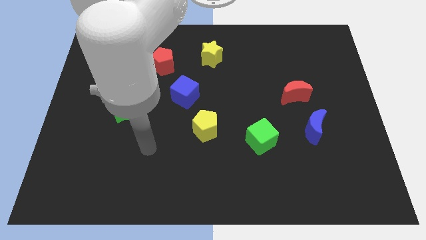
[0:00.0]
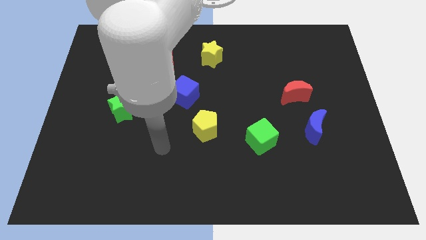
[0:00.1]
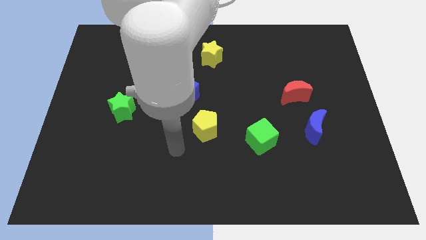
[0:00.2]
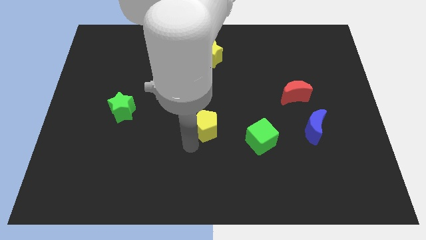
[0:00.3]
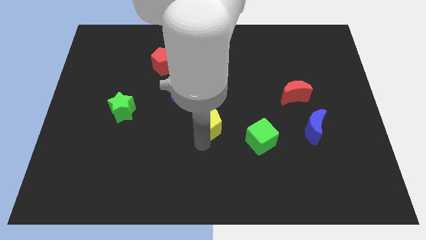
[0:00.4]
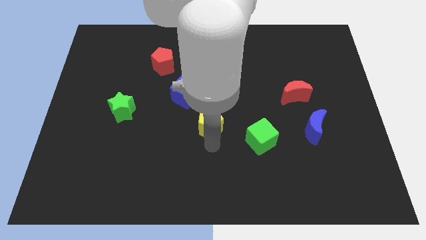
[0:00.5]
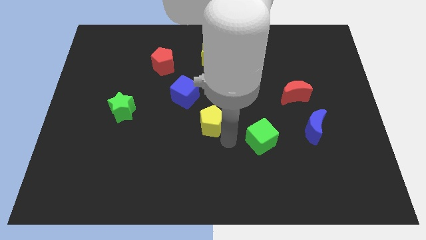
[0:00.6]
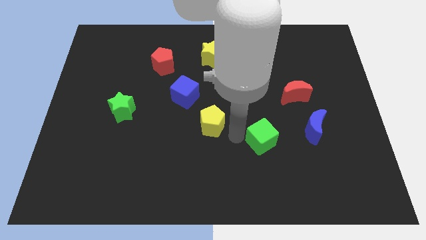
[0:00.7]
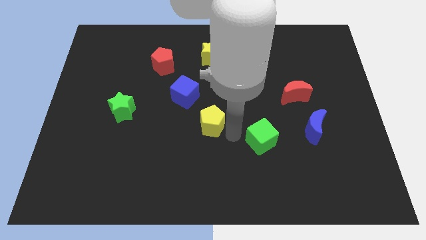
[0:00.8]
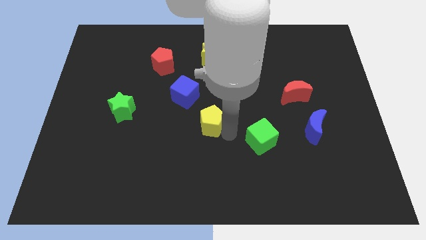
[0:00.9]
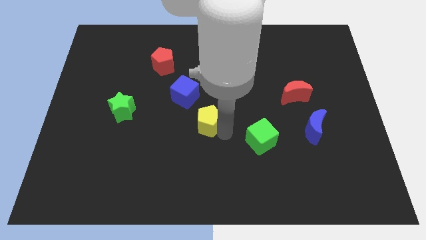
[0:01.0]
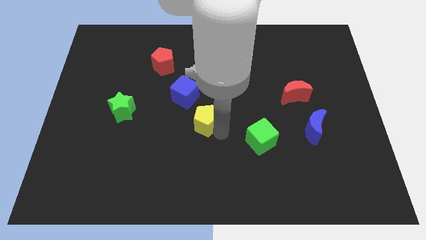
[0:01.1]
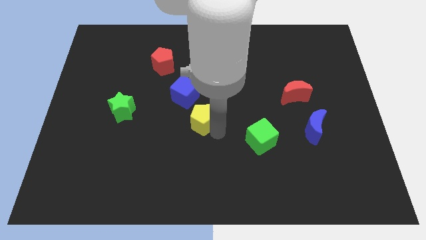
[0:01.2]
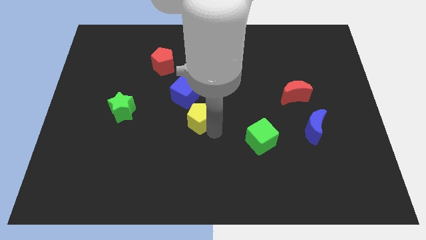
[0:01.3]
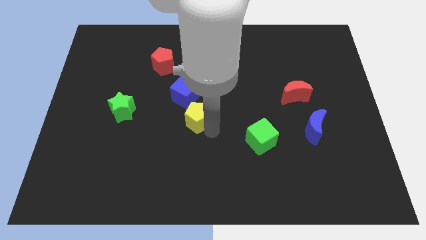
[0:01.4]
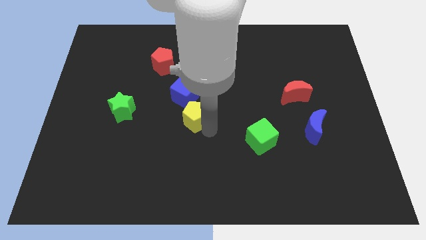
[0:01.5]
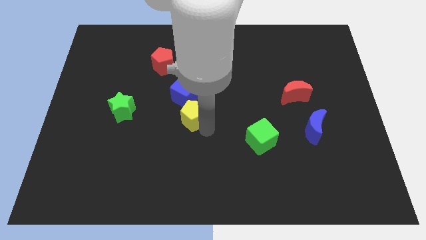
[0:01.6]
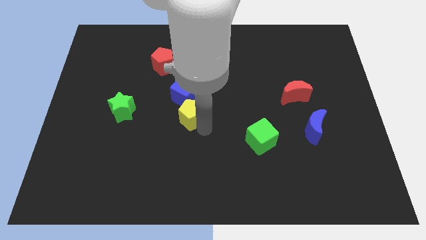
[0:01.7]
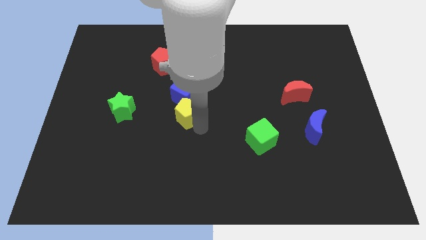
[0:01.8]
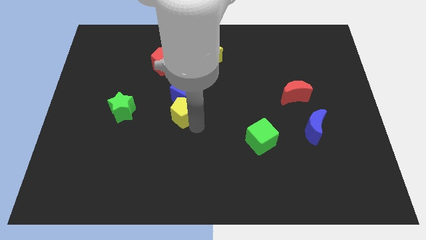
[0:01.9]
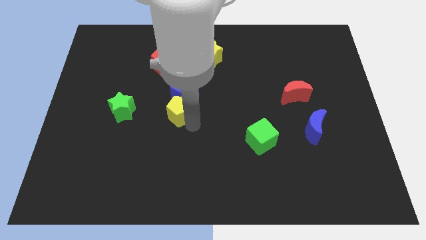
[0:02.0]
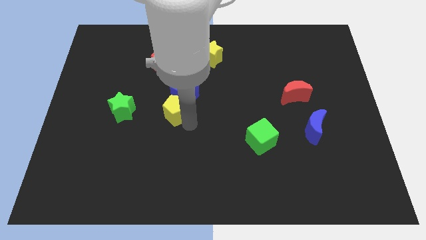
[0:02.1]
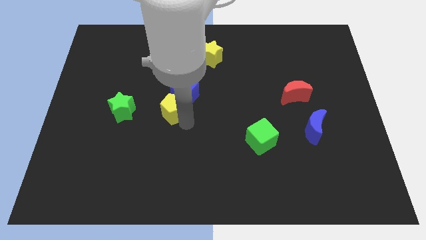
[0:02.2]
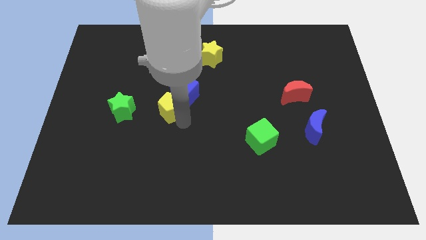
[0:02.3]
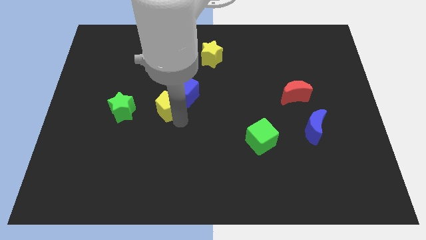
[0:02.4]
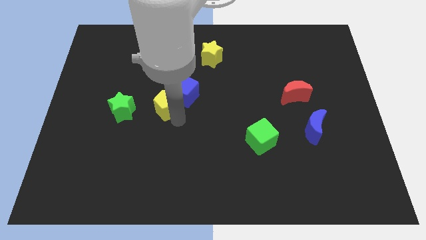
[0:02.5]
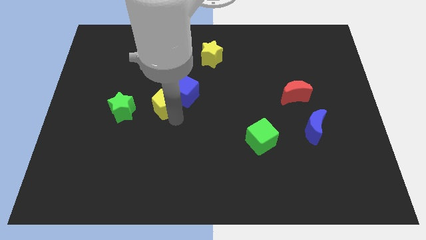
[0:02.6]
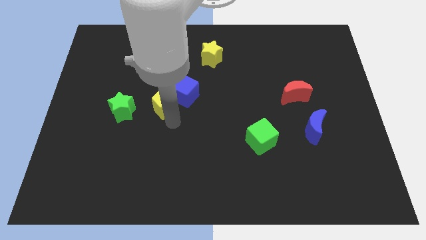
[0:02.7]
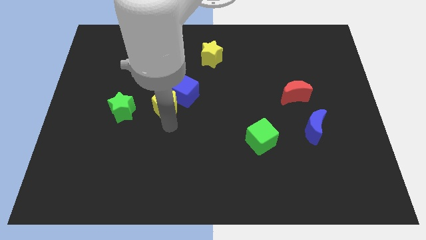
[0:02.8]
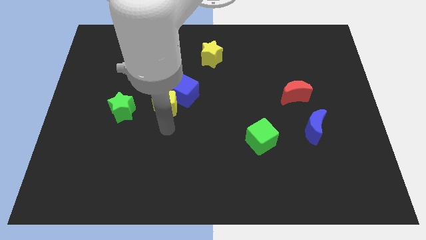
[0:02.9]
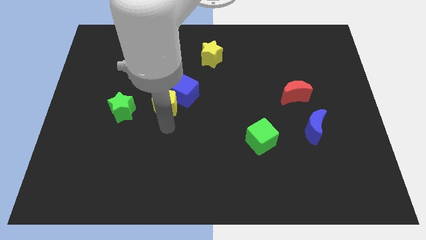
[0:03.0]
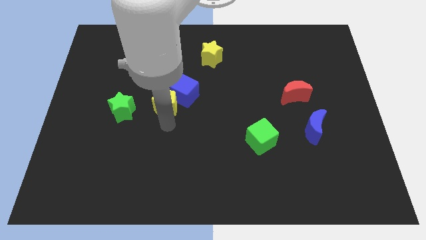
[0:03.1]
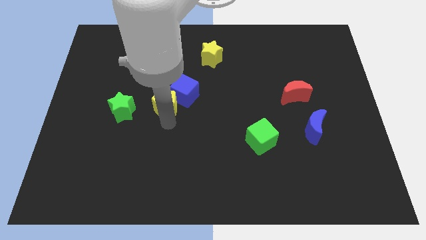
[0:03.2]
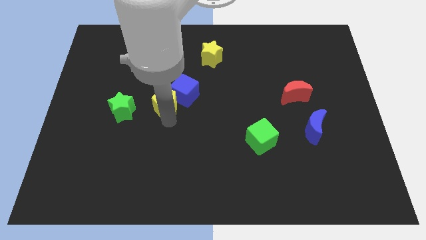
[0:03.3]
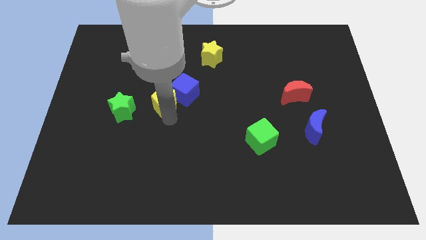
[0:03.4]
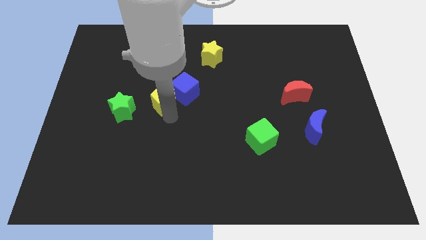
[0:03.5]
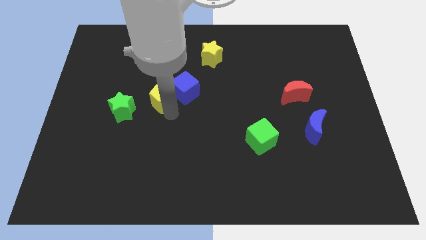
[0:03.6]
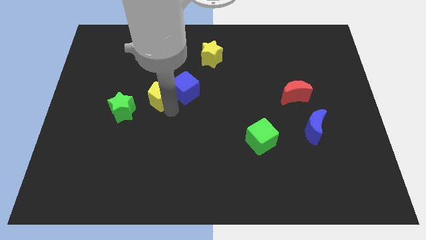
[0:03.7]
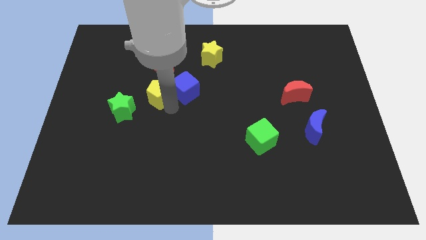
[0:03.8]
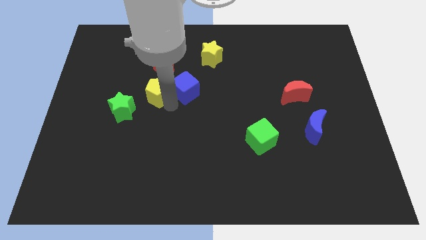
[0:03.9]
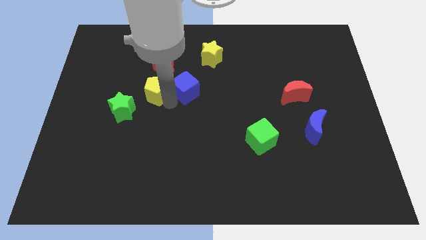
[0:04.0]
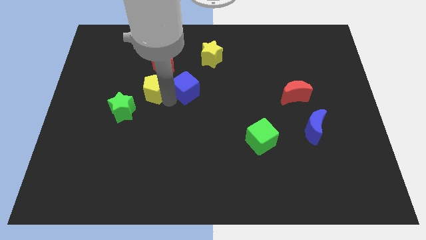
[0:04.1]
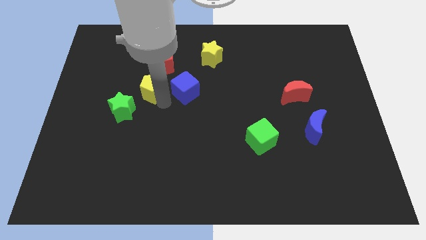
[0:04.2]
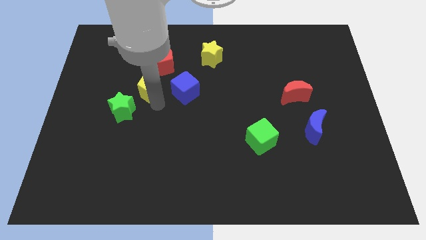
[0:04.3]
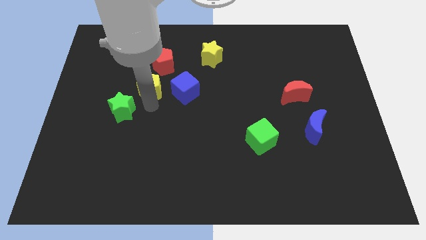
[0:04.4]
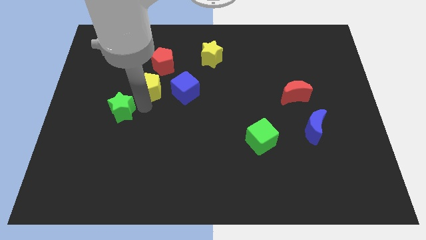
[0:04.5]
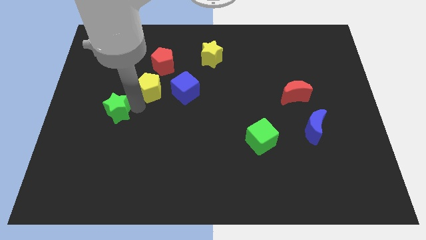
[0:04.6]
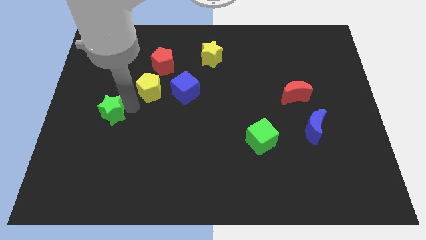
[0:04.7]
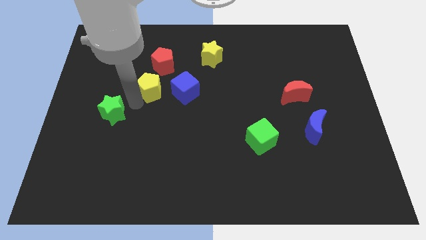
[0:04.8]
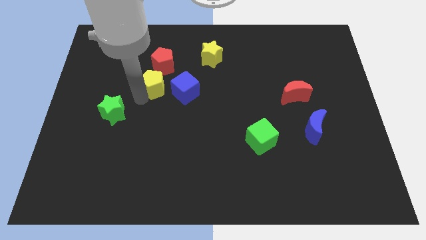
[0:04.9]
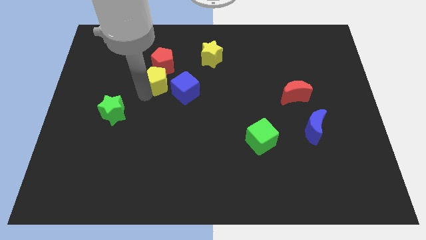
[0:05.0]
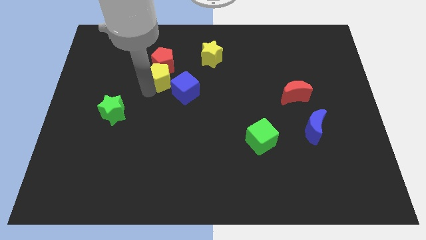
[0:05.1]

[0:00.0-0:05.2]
move the yellow pentagon towards the red pentagon

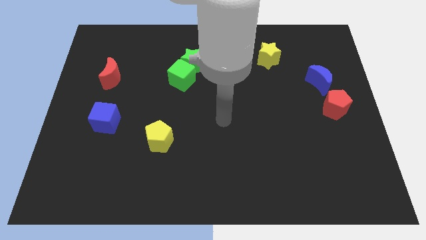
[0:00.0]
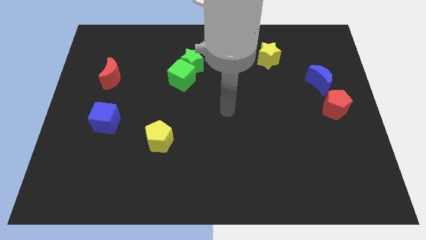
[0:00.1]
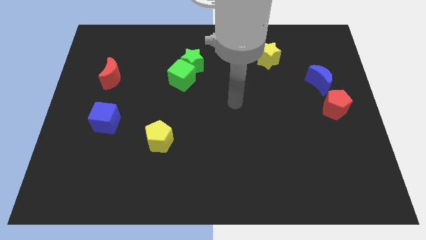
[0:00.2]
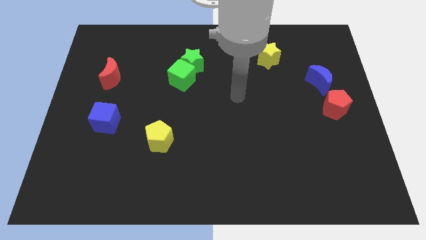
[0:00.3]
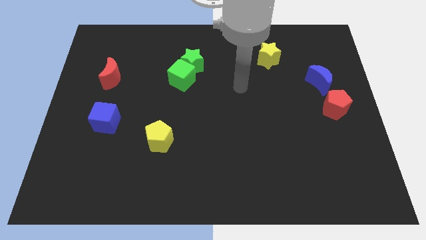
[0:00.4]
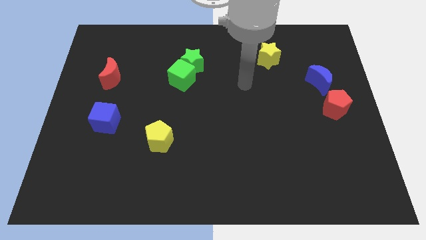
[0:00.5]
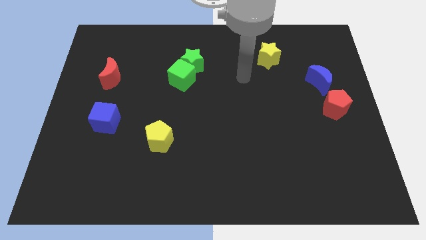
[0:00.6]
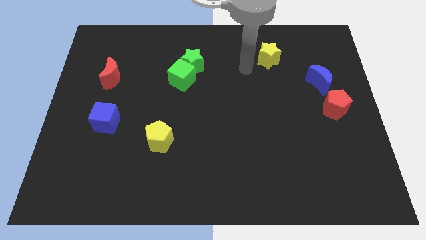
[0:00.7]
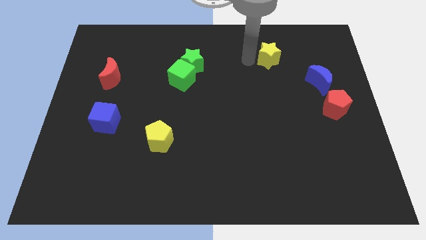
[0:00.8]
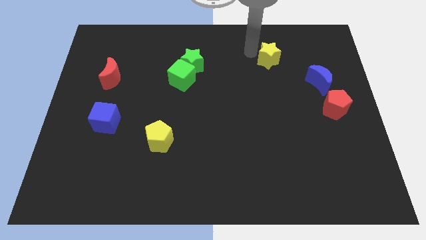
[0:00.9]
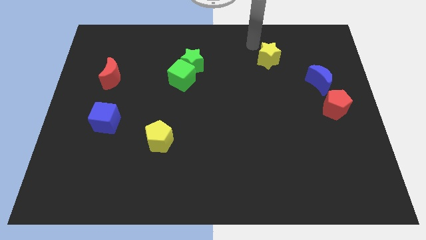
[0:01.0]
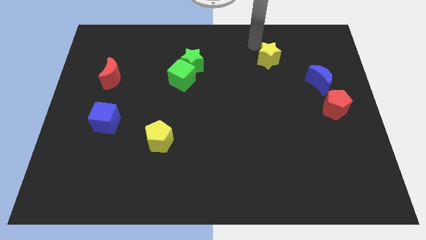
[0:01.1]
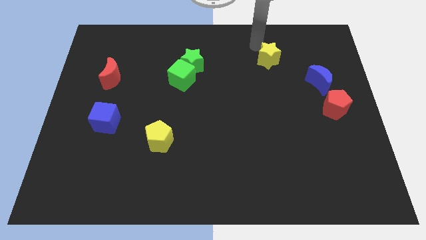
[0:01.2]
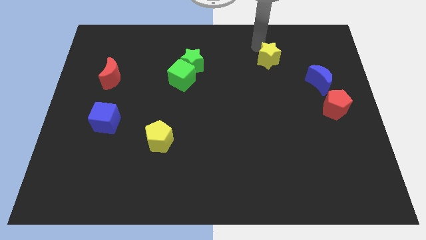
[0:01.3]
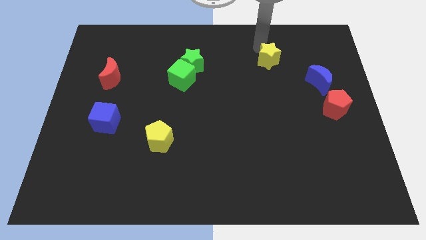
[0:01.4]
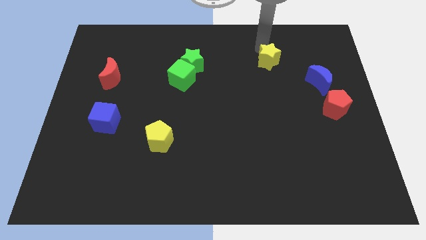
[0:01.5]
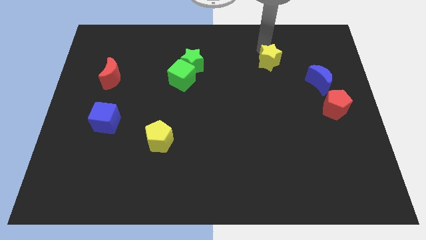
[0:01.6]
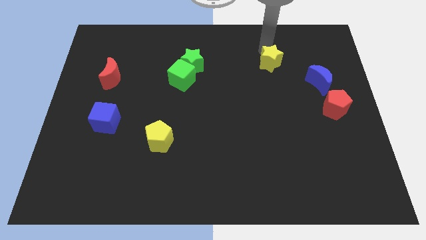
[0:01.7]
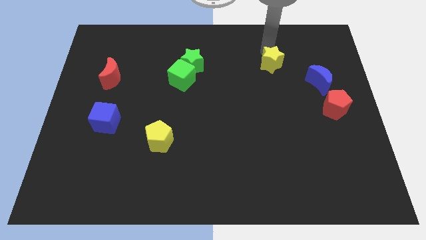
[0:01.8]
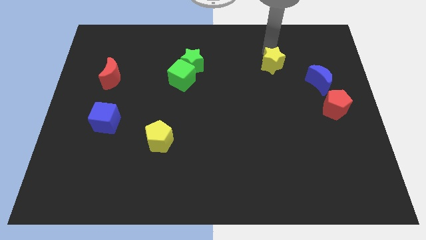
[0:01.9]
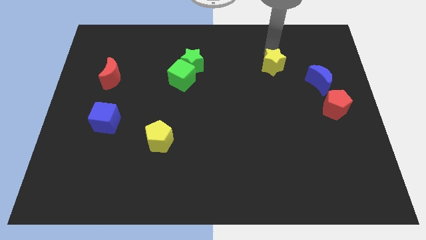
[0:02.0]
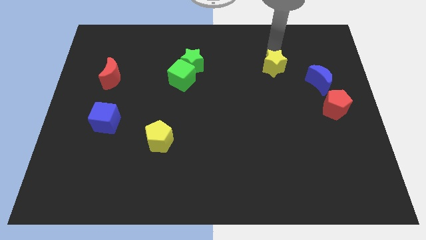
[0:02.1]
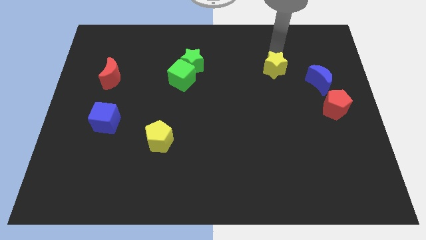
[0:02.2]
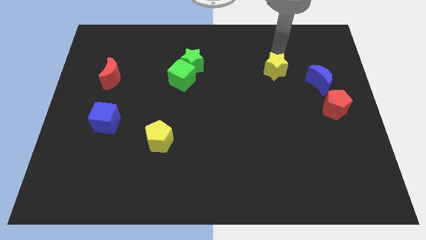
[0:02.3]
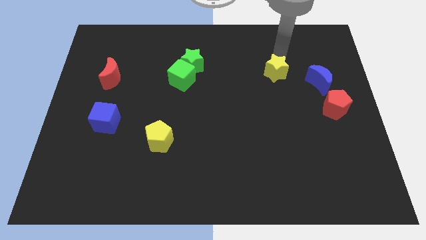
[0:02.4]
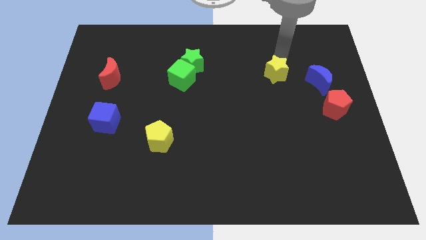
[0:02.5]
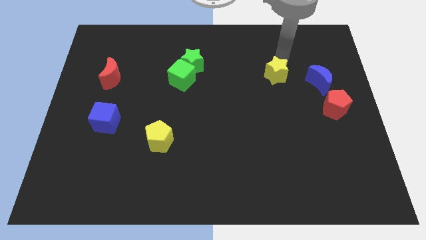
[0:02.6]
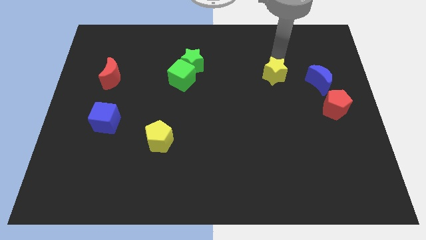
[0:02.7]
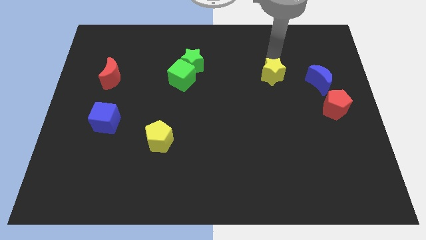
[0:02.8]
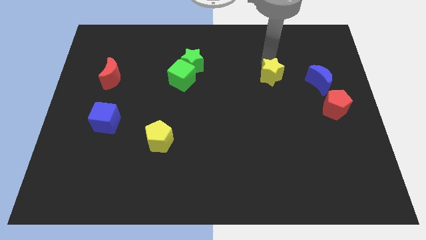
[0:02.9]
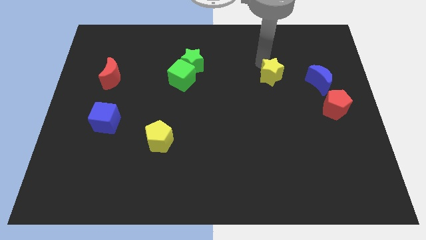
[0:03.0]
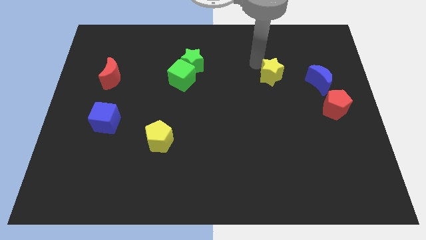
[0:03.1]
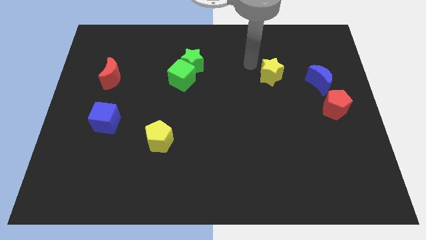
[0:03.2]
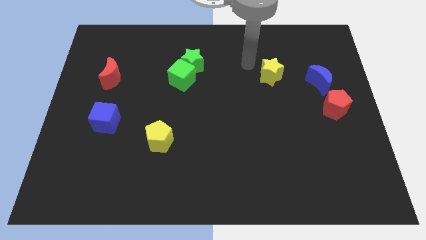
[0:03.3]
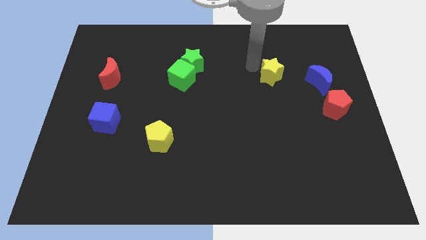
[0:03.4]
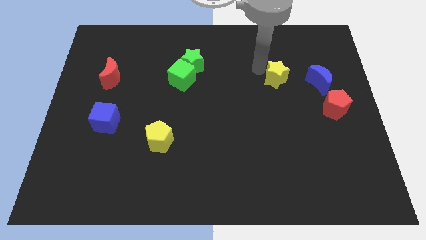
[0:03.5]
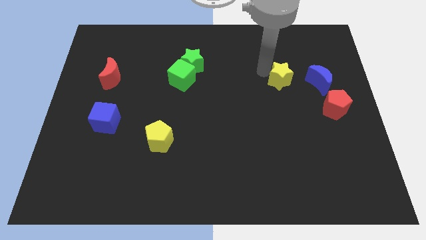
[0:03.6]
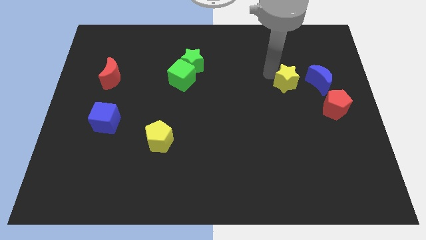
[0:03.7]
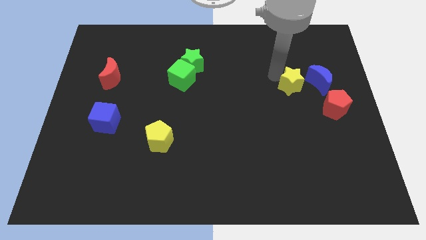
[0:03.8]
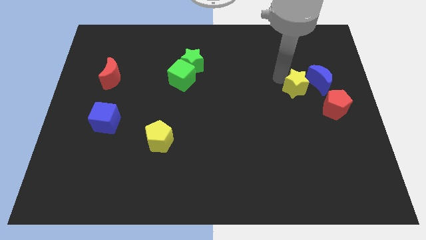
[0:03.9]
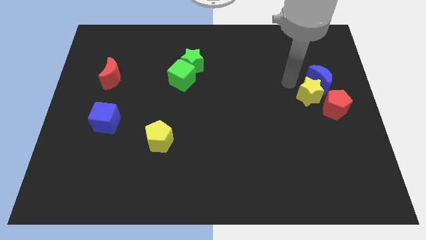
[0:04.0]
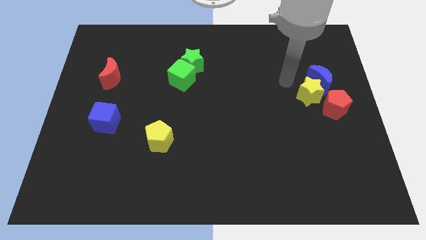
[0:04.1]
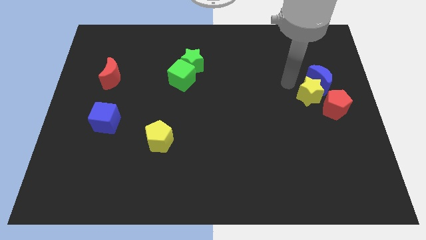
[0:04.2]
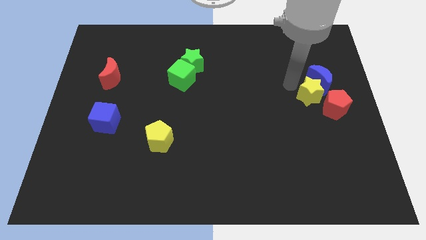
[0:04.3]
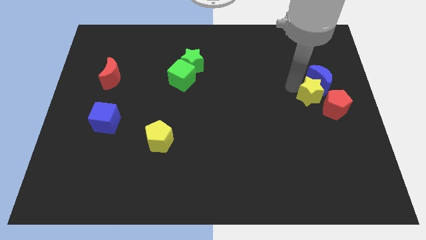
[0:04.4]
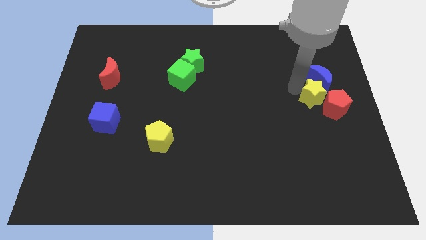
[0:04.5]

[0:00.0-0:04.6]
put the yellow star towards the red pentagon
